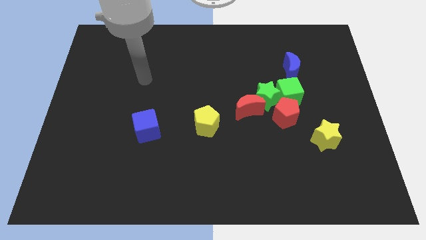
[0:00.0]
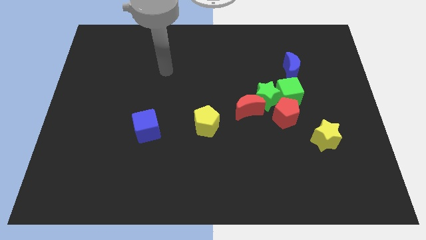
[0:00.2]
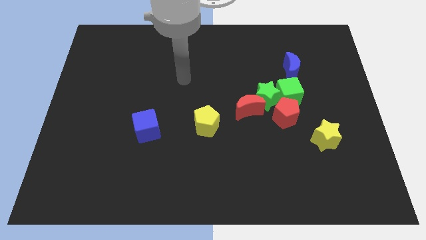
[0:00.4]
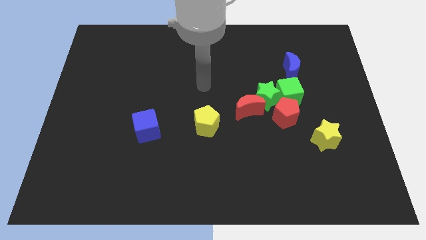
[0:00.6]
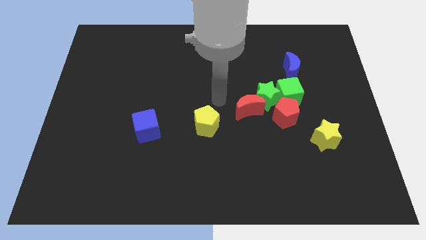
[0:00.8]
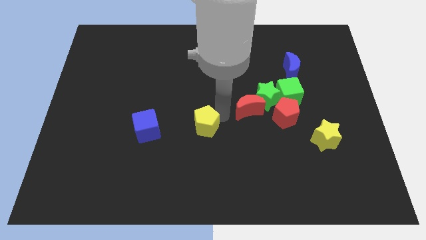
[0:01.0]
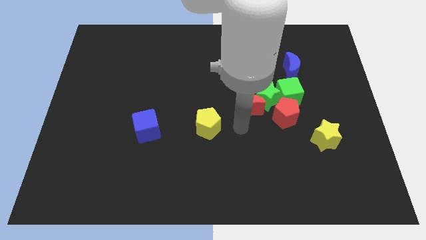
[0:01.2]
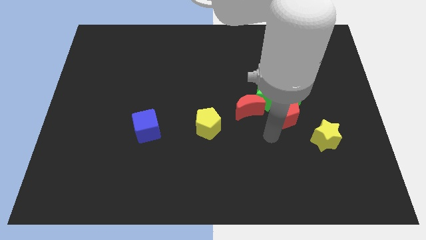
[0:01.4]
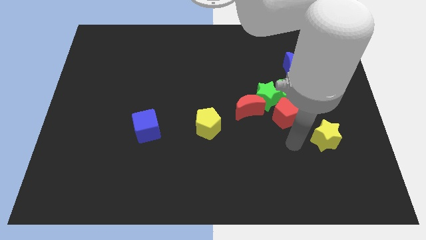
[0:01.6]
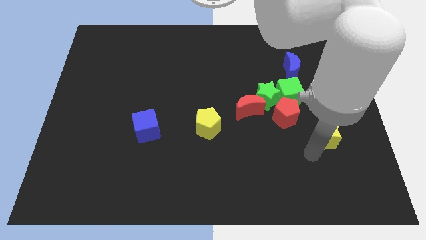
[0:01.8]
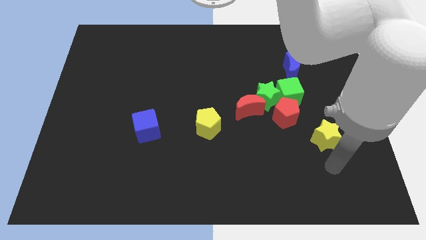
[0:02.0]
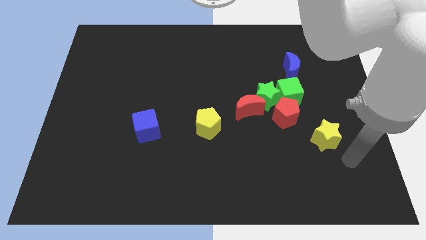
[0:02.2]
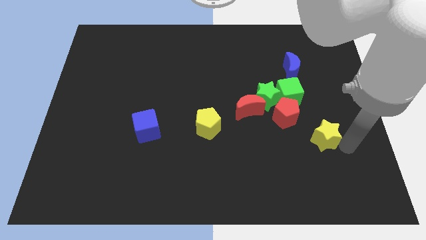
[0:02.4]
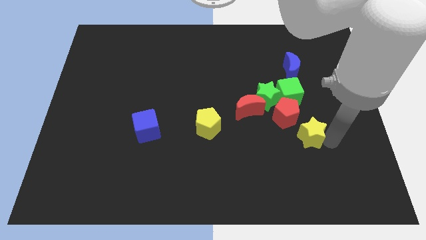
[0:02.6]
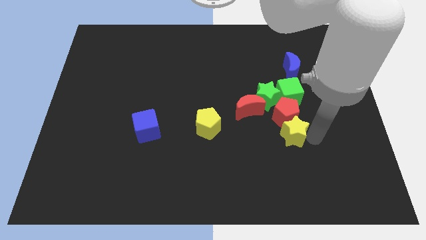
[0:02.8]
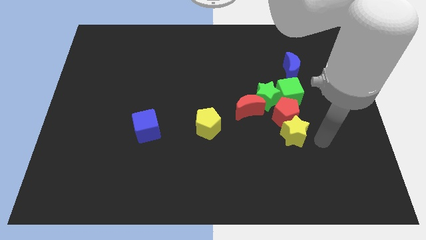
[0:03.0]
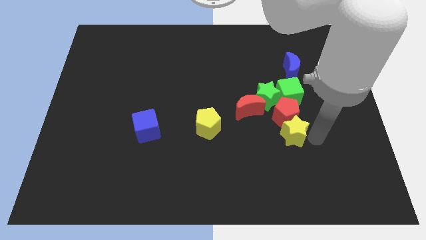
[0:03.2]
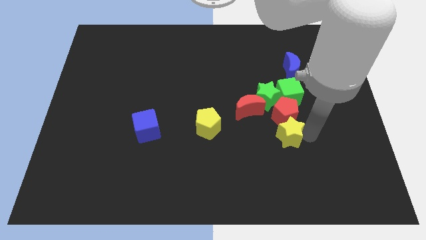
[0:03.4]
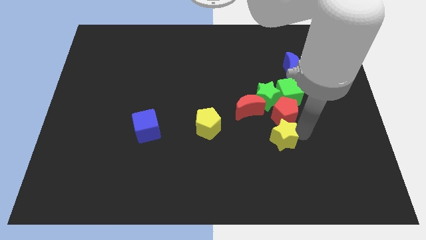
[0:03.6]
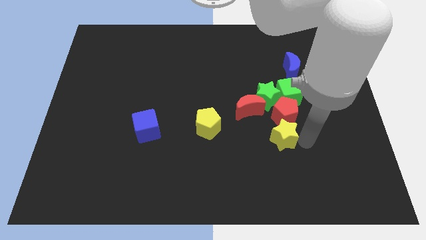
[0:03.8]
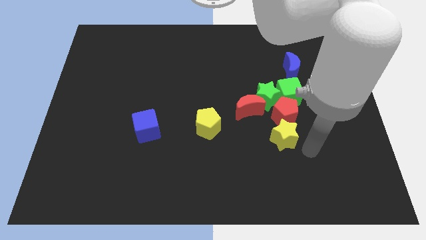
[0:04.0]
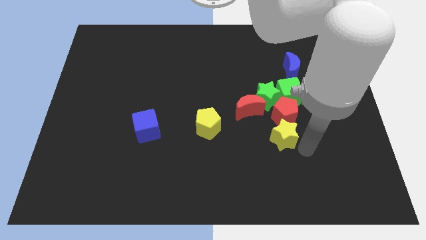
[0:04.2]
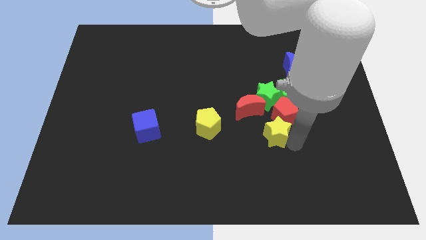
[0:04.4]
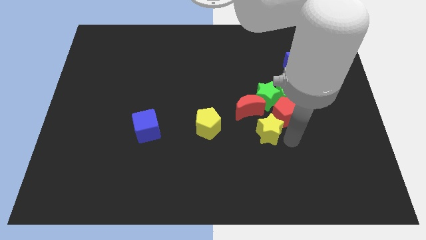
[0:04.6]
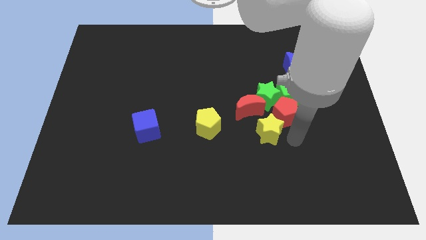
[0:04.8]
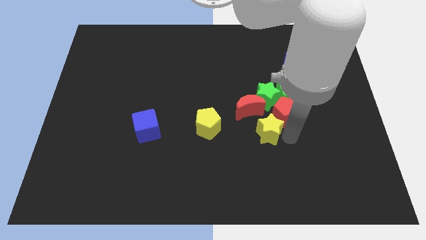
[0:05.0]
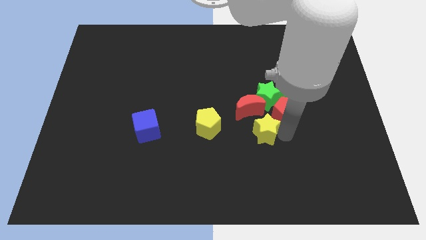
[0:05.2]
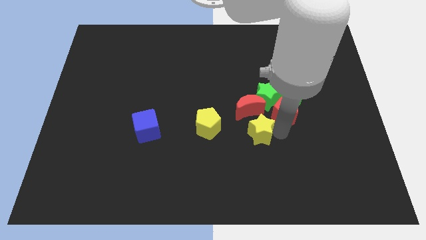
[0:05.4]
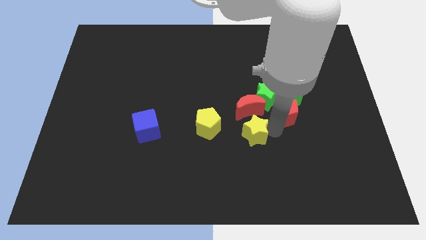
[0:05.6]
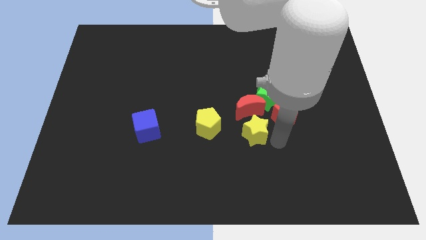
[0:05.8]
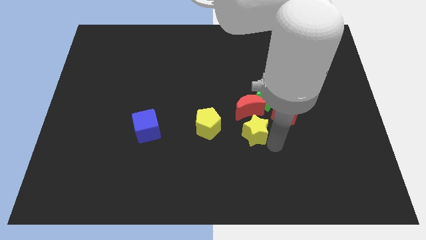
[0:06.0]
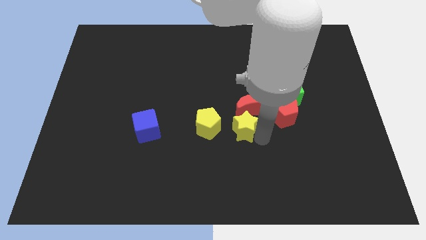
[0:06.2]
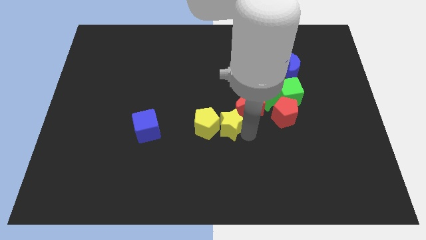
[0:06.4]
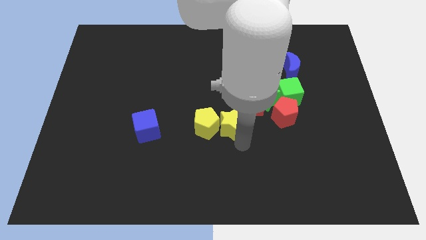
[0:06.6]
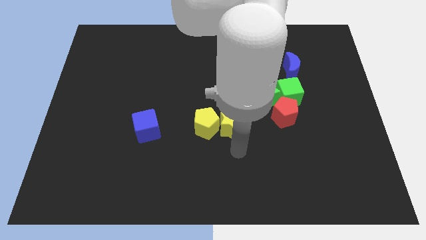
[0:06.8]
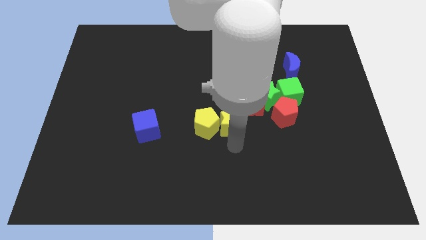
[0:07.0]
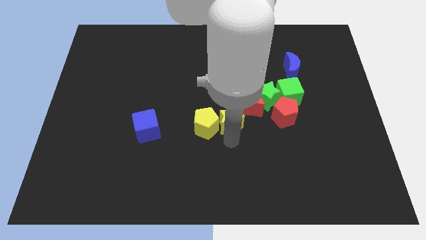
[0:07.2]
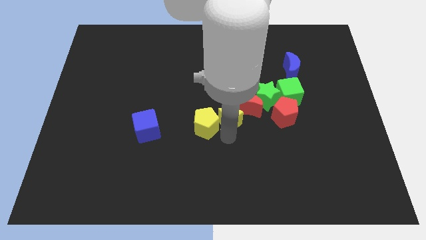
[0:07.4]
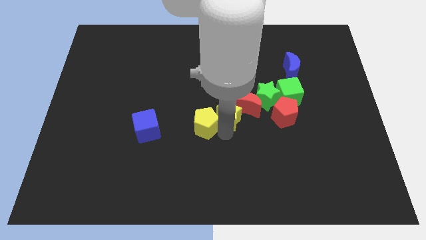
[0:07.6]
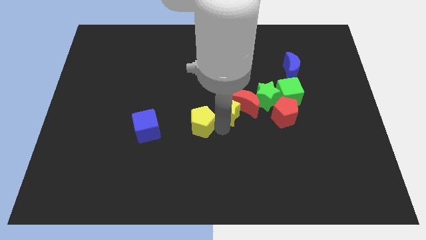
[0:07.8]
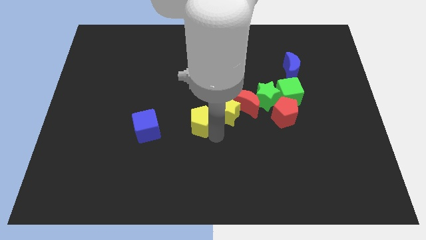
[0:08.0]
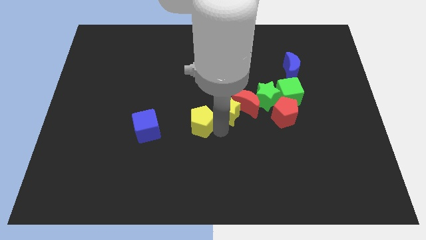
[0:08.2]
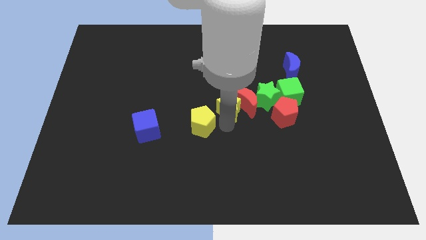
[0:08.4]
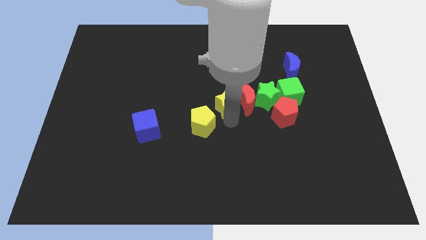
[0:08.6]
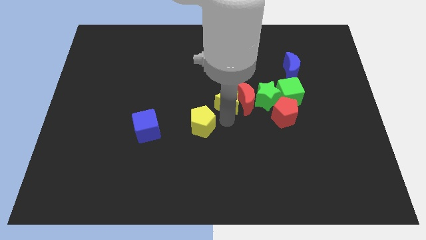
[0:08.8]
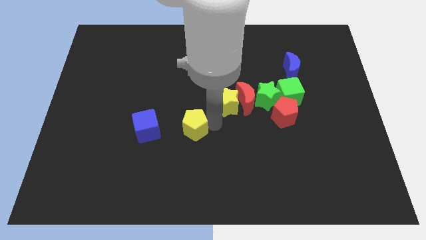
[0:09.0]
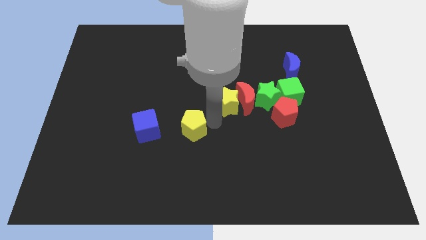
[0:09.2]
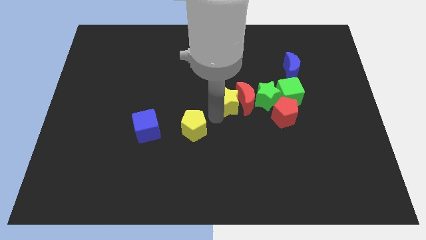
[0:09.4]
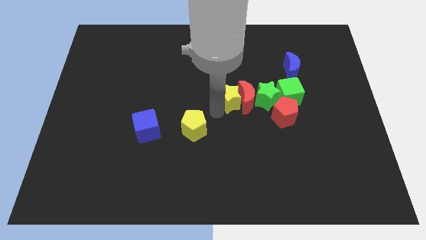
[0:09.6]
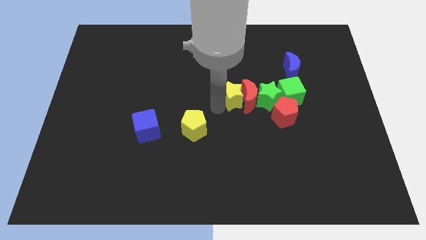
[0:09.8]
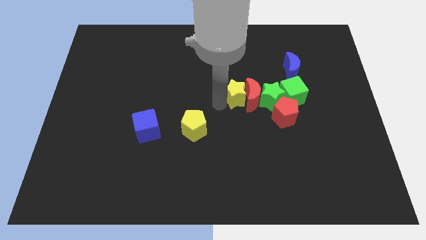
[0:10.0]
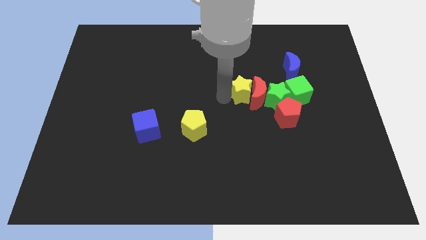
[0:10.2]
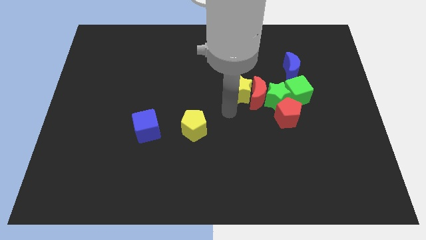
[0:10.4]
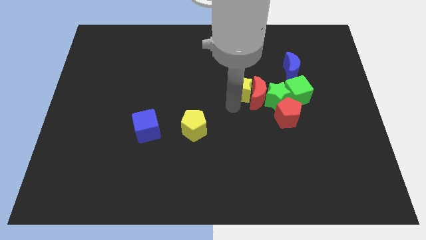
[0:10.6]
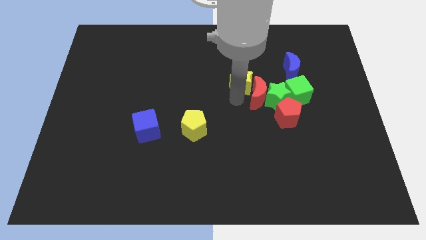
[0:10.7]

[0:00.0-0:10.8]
put the yellow star above the red moon

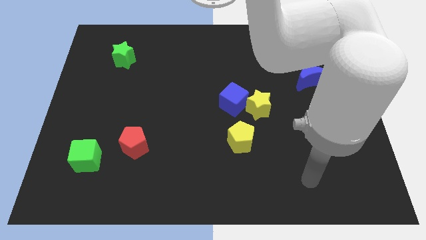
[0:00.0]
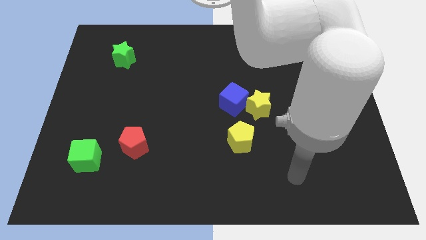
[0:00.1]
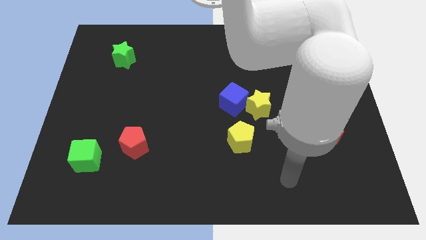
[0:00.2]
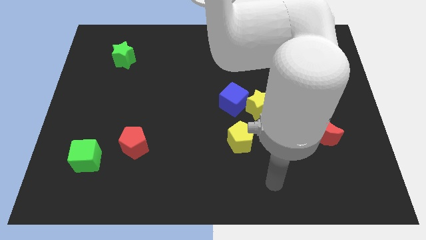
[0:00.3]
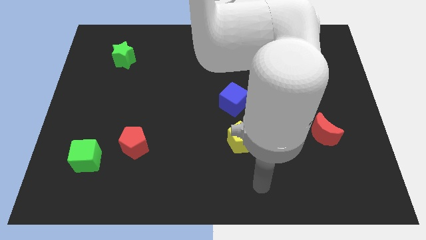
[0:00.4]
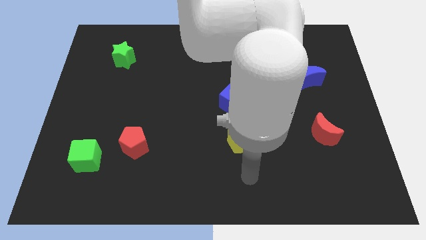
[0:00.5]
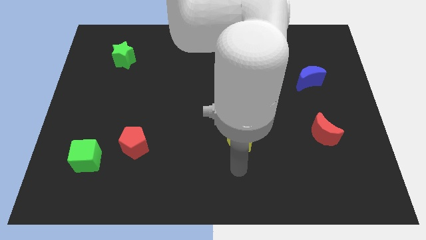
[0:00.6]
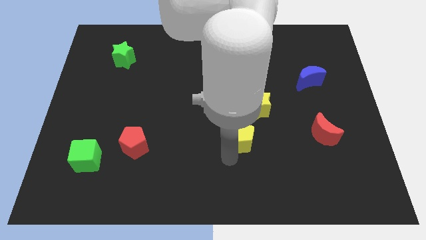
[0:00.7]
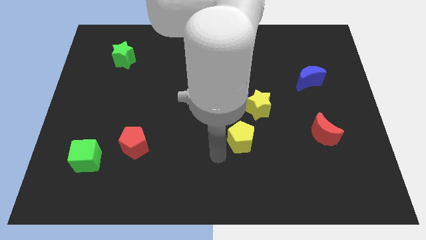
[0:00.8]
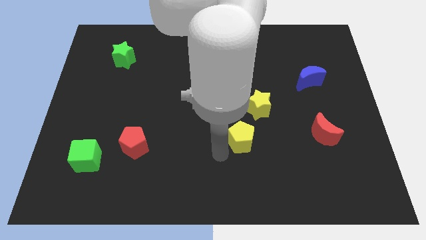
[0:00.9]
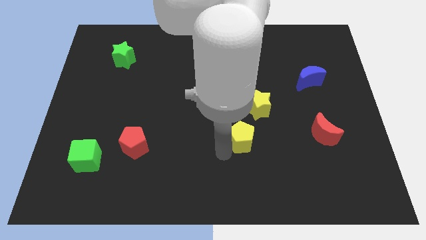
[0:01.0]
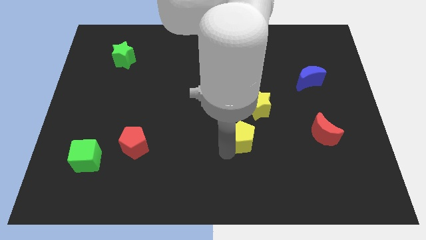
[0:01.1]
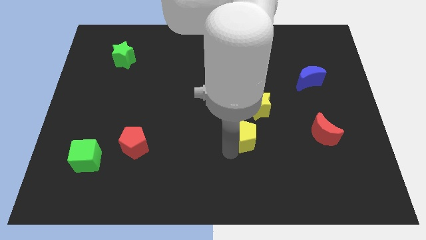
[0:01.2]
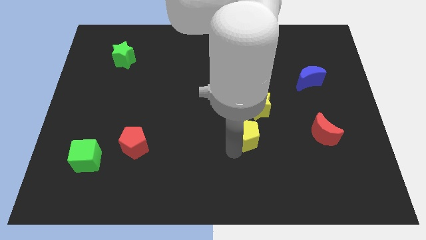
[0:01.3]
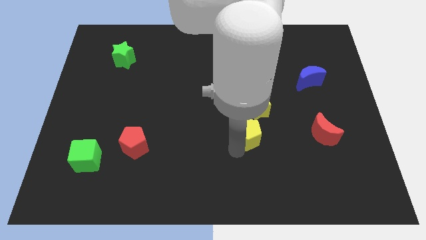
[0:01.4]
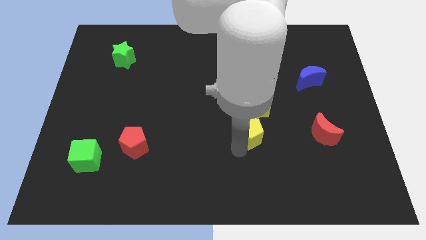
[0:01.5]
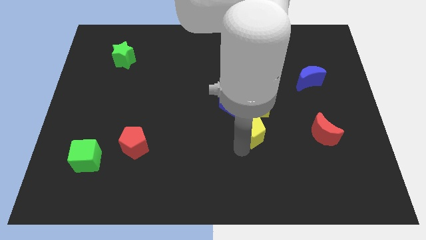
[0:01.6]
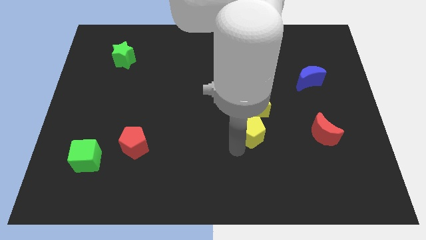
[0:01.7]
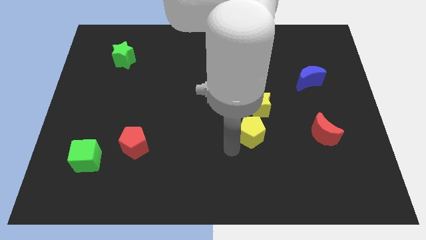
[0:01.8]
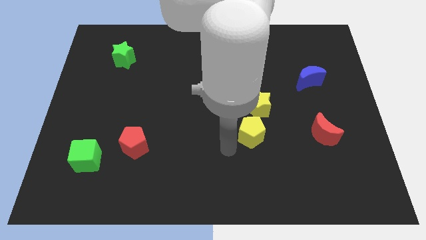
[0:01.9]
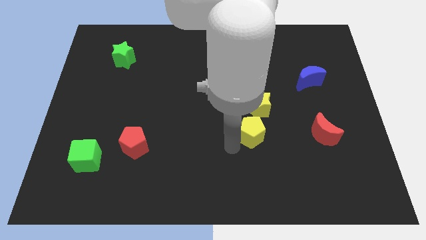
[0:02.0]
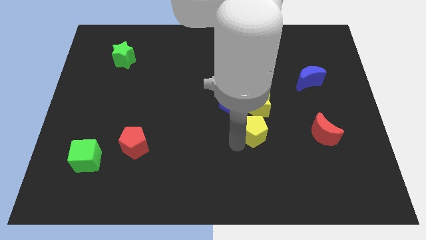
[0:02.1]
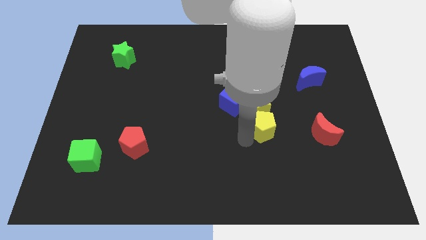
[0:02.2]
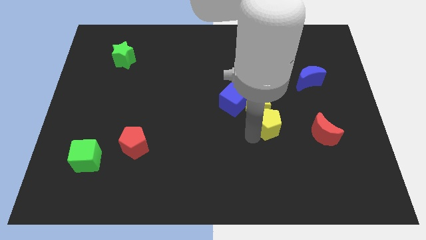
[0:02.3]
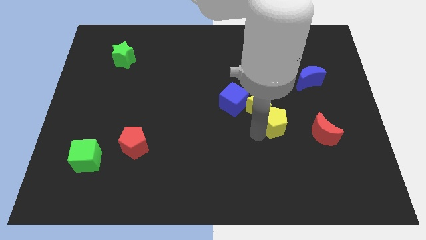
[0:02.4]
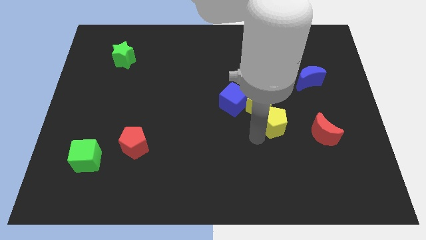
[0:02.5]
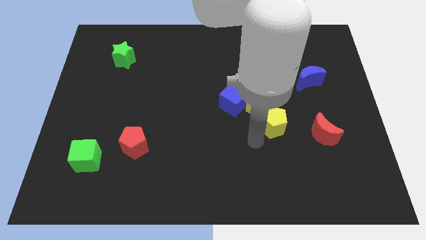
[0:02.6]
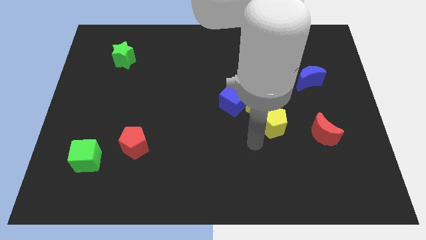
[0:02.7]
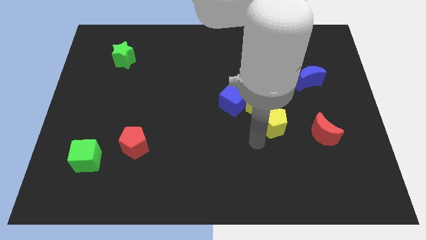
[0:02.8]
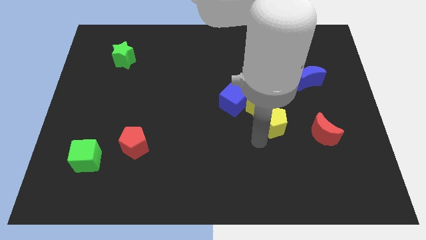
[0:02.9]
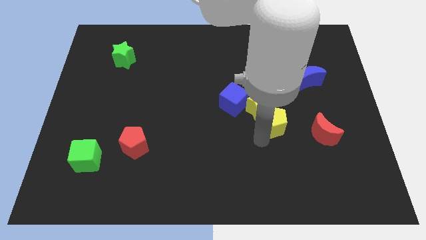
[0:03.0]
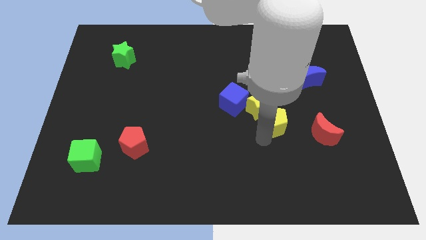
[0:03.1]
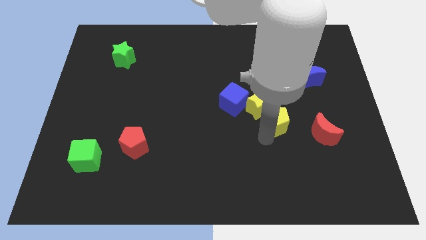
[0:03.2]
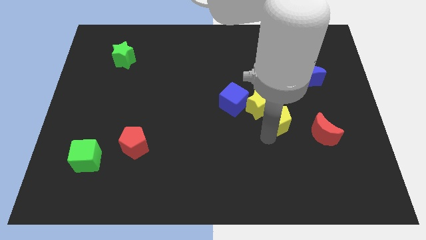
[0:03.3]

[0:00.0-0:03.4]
push the yellow pentagon to the right side of the yellow star
